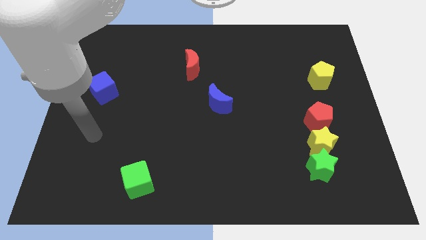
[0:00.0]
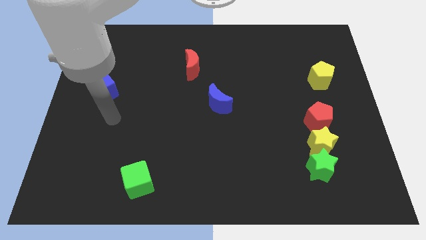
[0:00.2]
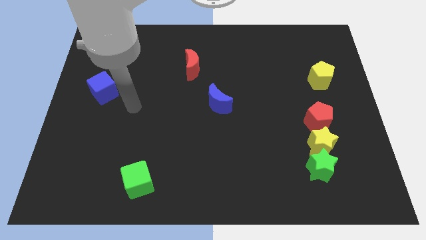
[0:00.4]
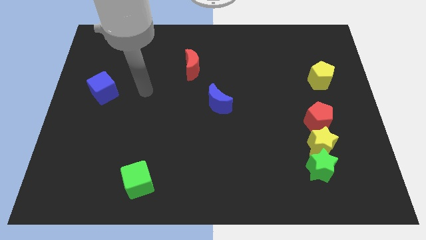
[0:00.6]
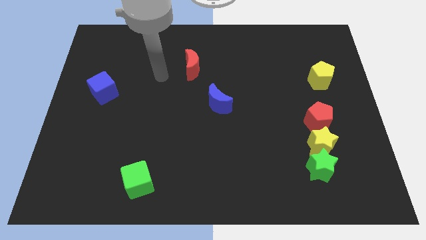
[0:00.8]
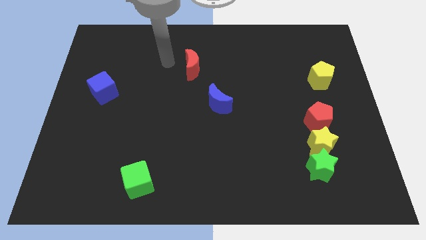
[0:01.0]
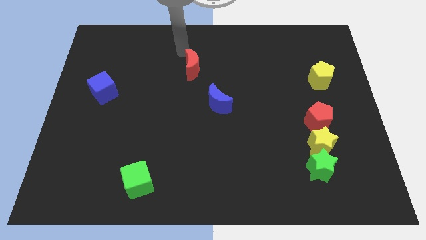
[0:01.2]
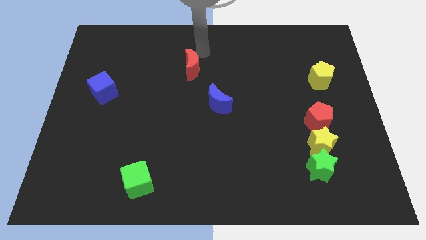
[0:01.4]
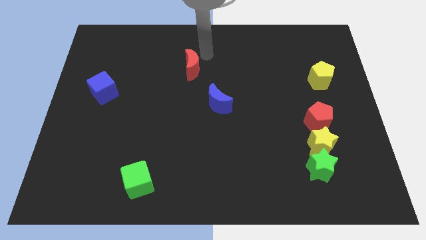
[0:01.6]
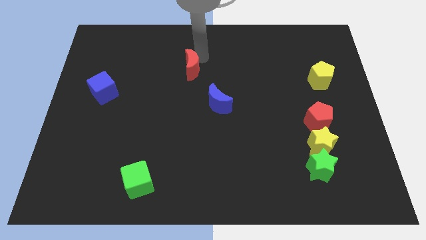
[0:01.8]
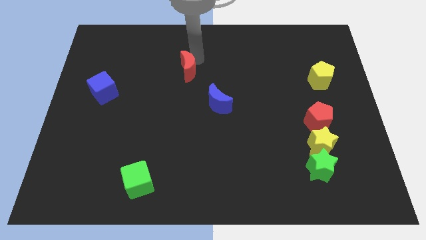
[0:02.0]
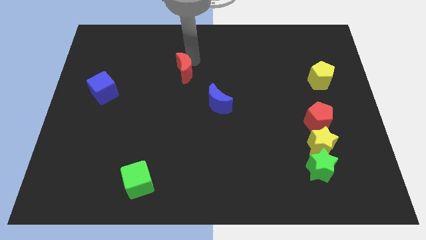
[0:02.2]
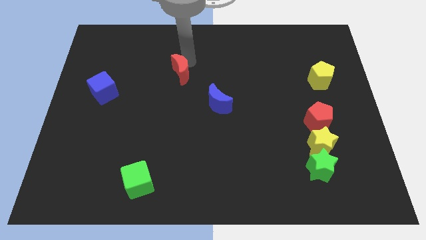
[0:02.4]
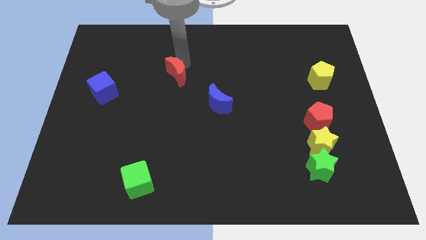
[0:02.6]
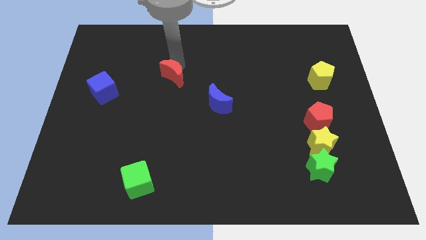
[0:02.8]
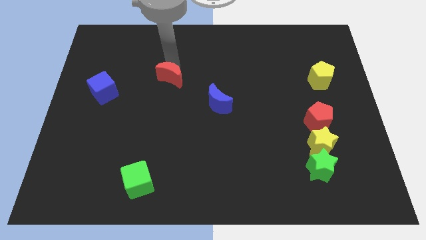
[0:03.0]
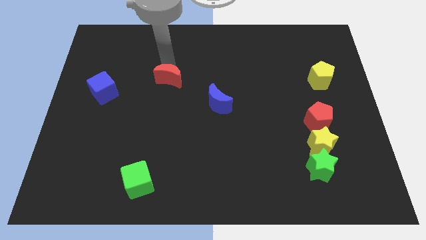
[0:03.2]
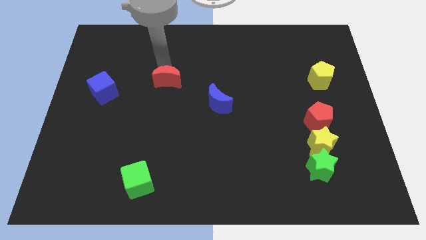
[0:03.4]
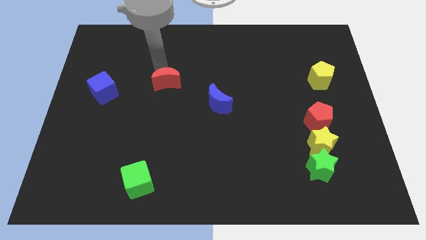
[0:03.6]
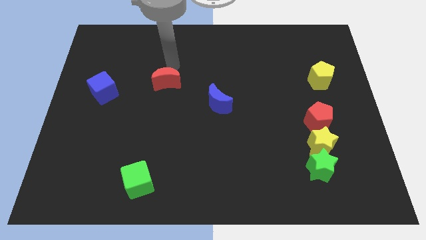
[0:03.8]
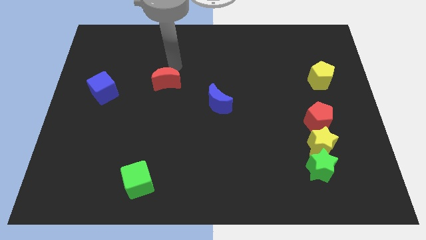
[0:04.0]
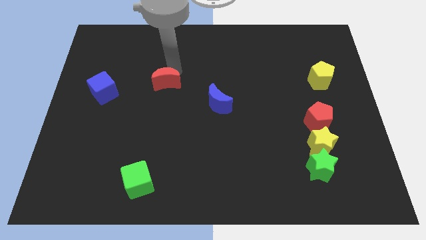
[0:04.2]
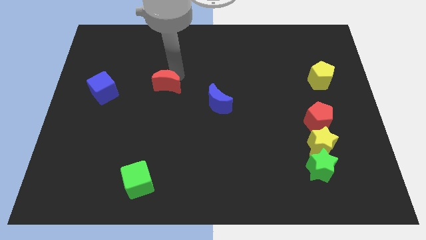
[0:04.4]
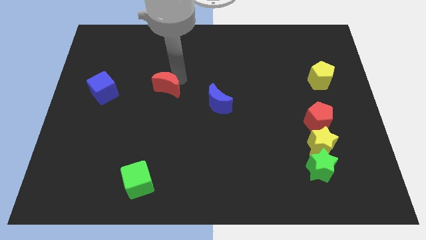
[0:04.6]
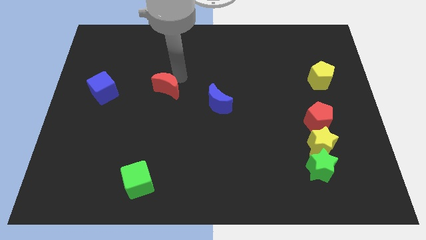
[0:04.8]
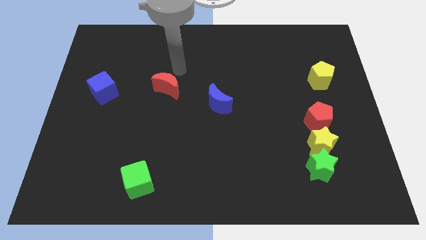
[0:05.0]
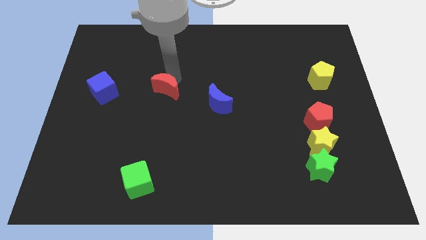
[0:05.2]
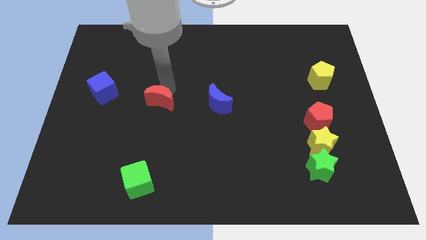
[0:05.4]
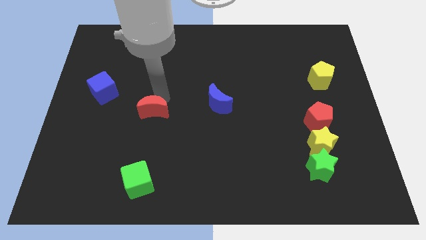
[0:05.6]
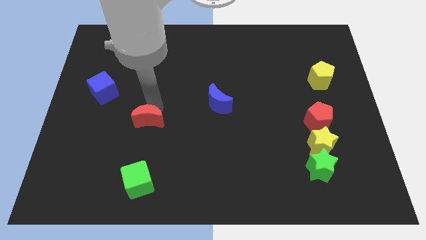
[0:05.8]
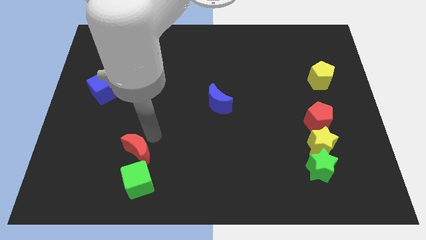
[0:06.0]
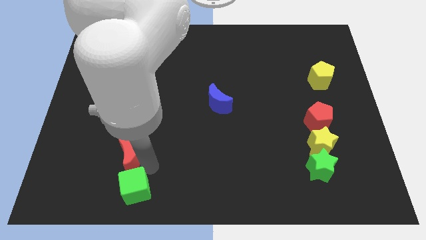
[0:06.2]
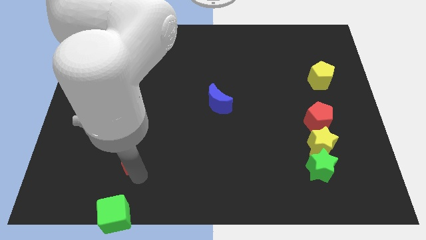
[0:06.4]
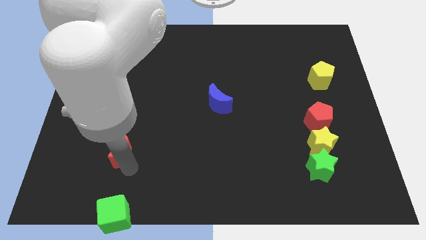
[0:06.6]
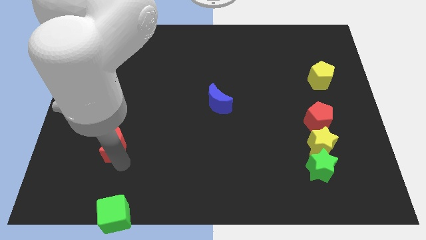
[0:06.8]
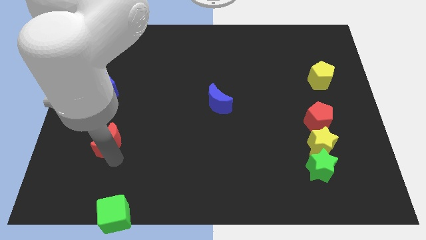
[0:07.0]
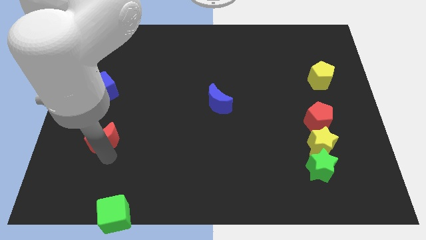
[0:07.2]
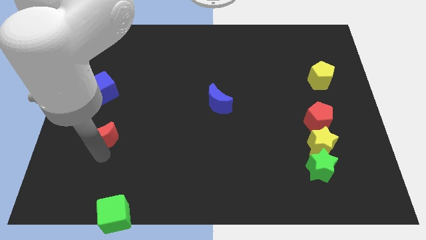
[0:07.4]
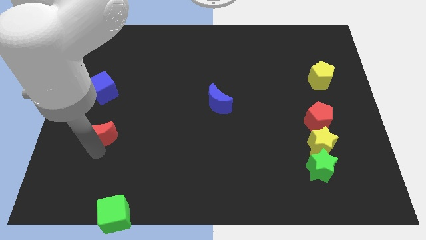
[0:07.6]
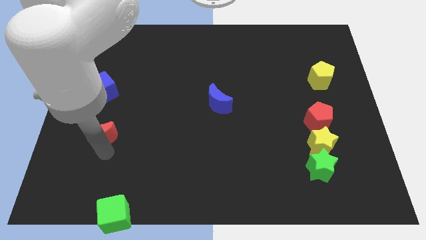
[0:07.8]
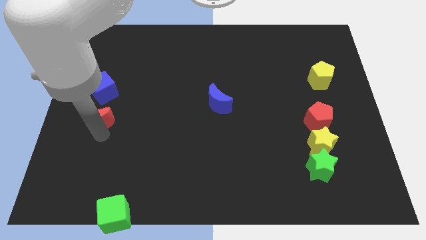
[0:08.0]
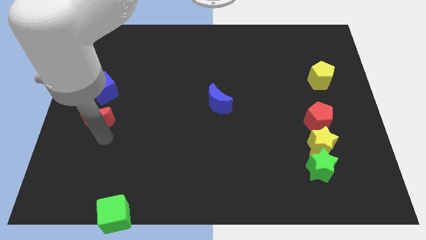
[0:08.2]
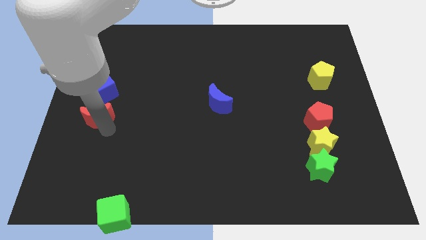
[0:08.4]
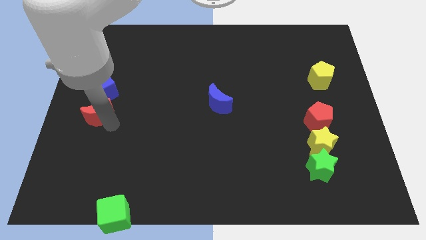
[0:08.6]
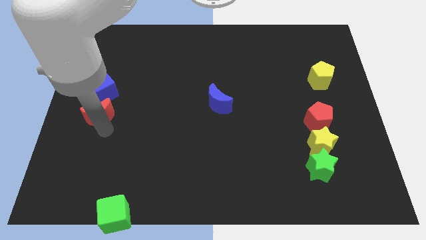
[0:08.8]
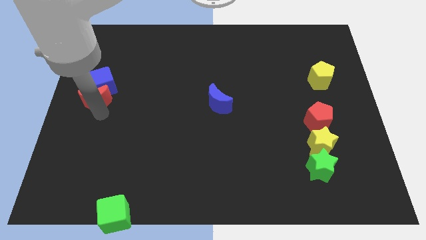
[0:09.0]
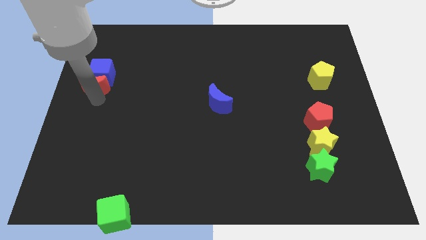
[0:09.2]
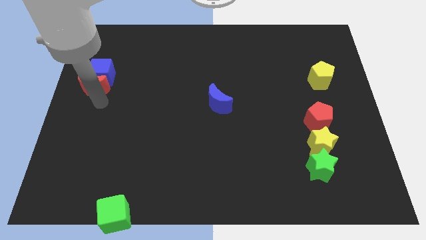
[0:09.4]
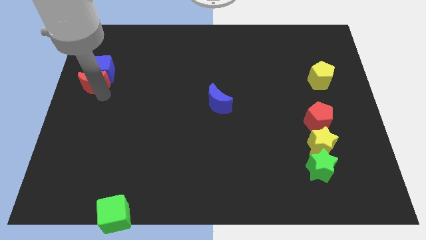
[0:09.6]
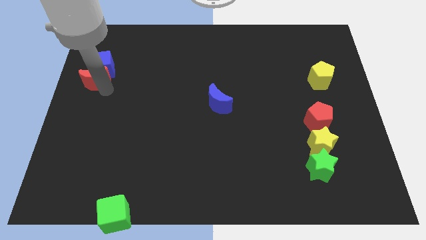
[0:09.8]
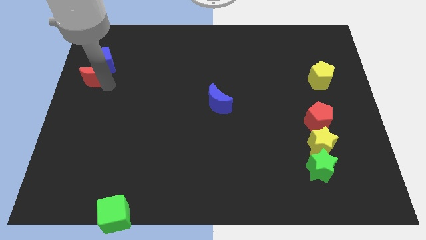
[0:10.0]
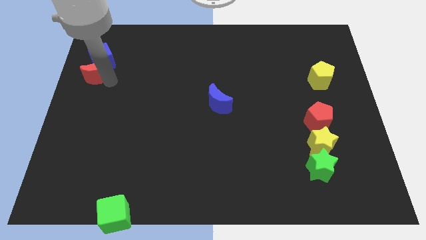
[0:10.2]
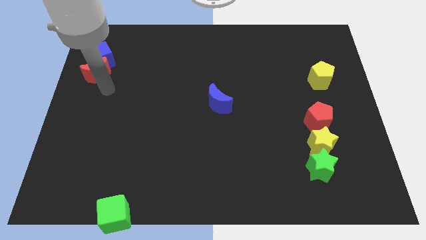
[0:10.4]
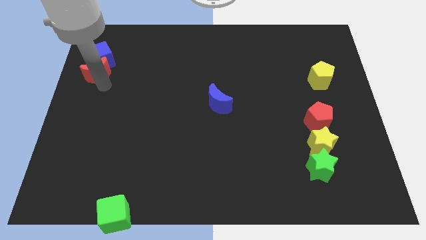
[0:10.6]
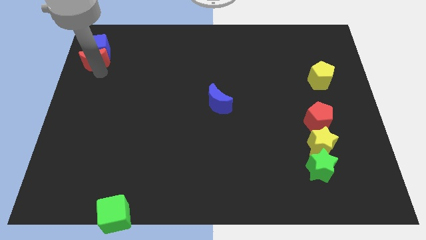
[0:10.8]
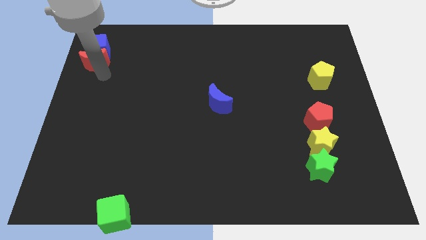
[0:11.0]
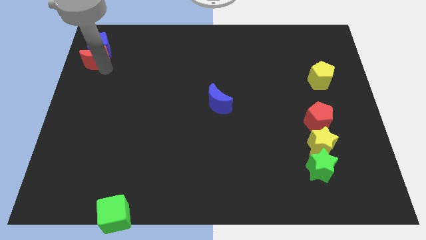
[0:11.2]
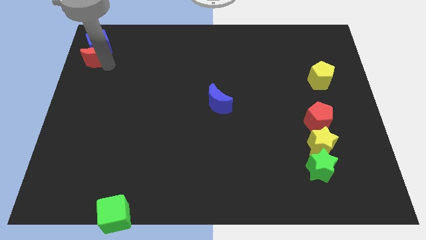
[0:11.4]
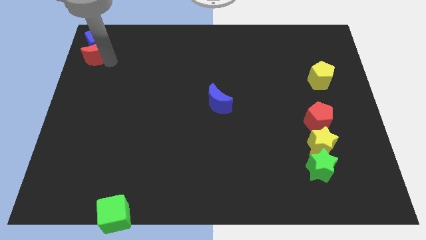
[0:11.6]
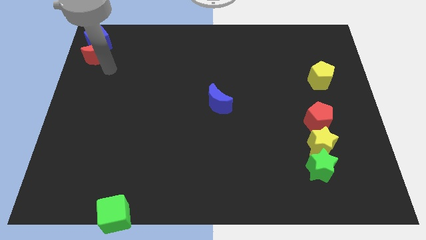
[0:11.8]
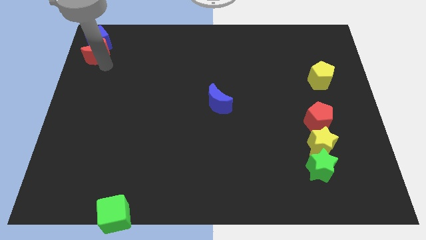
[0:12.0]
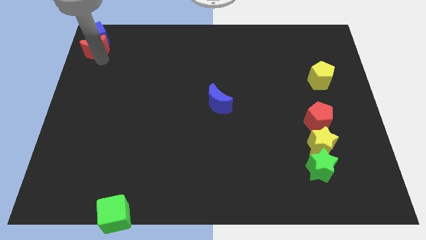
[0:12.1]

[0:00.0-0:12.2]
push the red moon to the upper left corner
